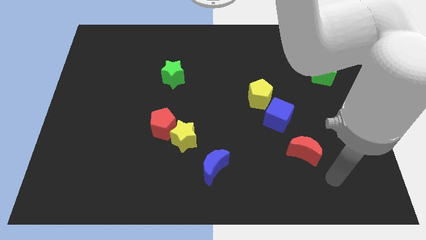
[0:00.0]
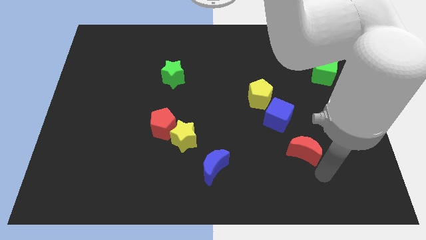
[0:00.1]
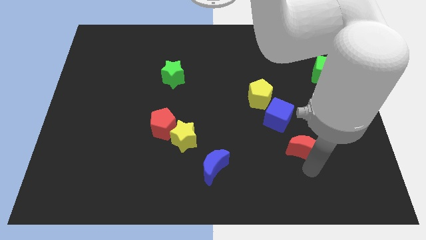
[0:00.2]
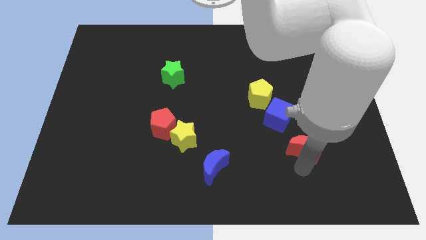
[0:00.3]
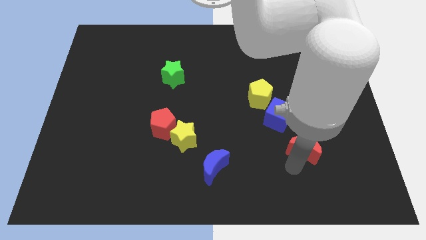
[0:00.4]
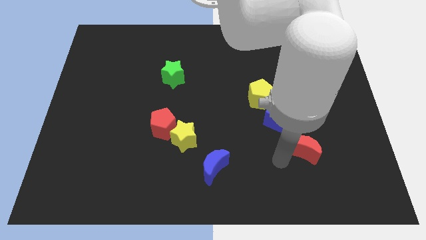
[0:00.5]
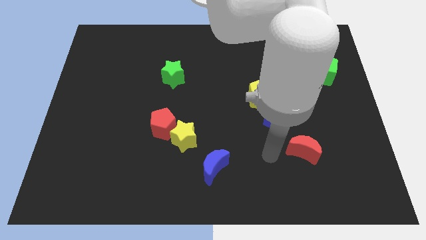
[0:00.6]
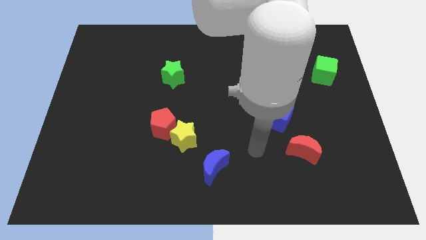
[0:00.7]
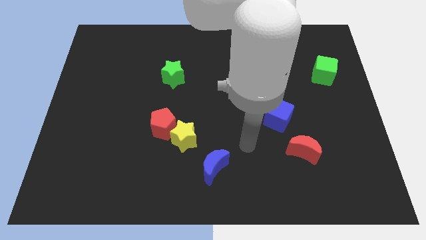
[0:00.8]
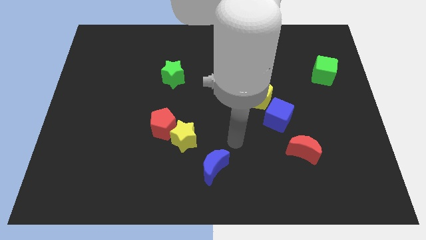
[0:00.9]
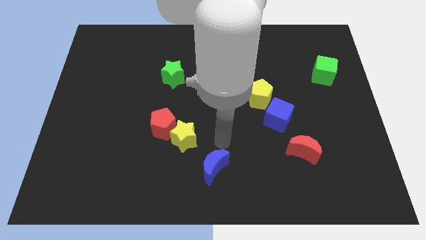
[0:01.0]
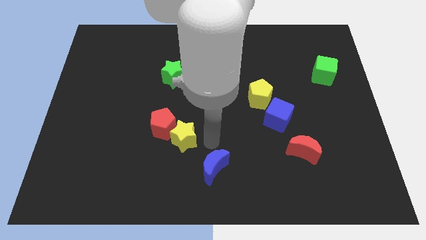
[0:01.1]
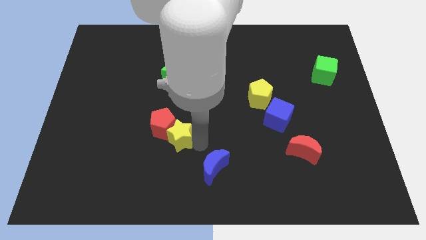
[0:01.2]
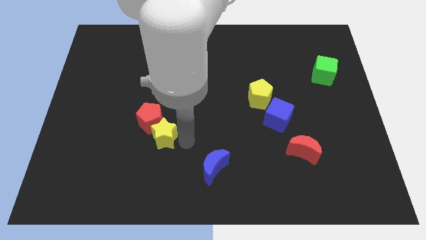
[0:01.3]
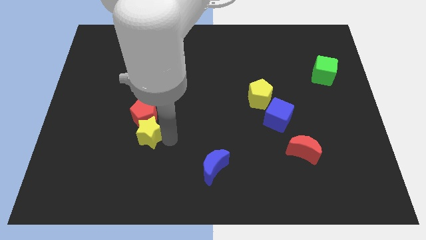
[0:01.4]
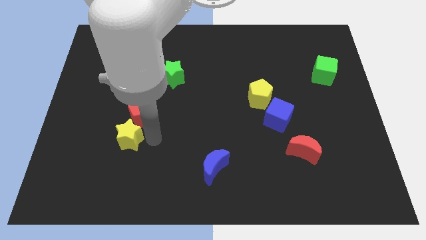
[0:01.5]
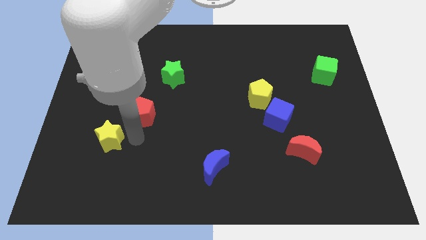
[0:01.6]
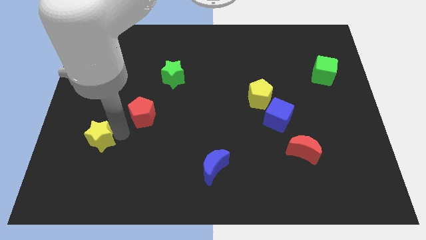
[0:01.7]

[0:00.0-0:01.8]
separate the red pentagon from the yellow star

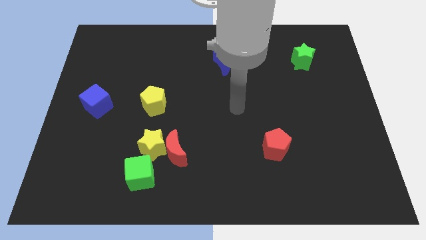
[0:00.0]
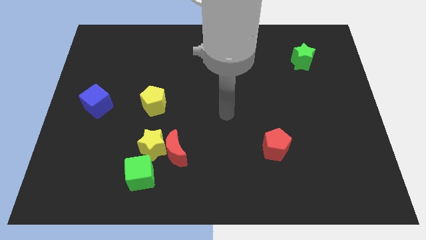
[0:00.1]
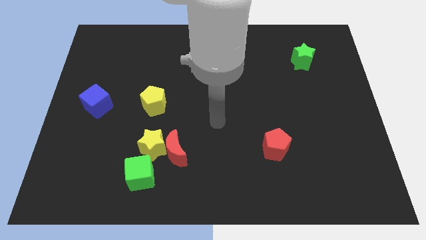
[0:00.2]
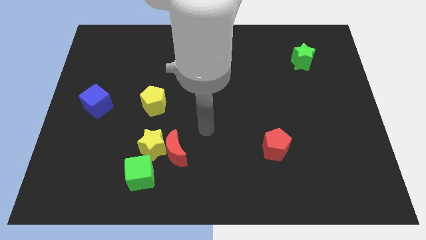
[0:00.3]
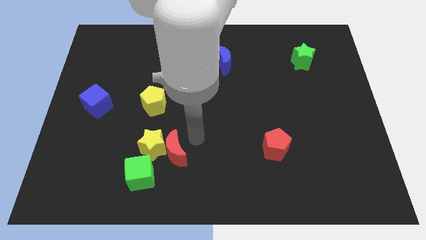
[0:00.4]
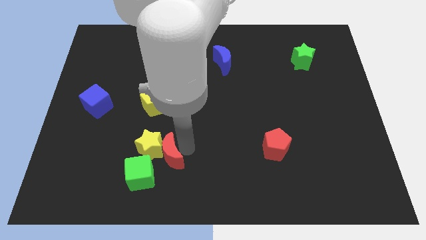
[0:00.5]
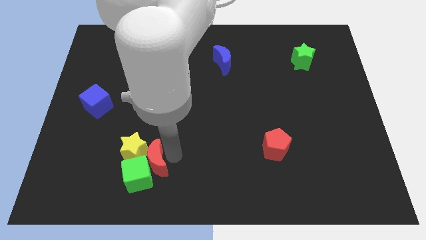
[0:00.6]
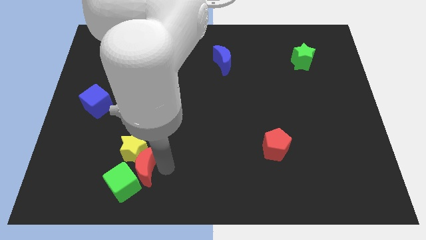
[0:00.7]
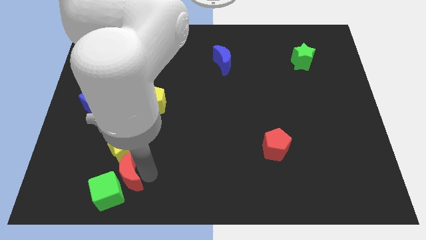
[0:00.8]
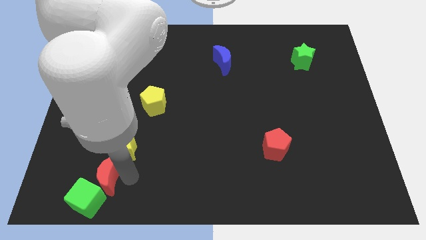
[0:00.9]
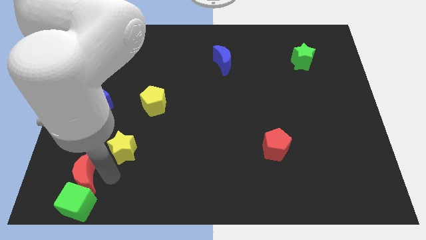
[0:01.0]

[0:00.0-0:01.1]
separate the yellow star from the red moon and green cube

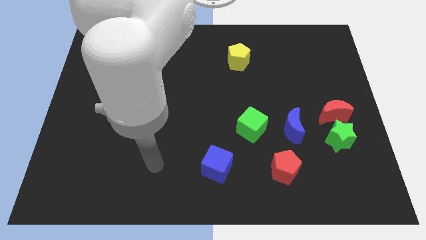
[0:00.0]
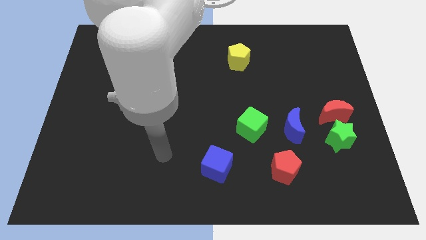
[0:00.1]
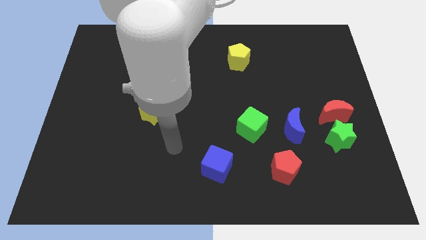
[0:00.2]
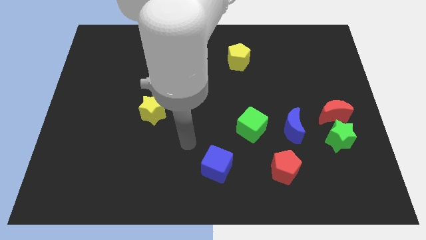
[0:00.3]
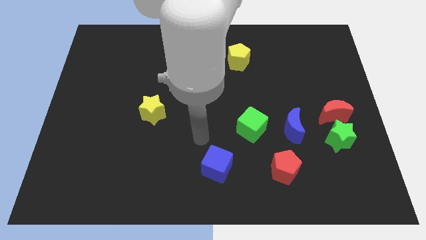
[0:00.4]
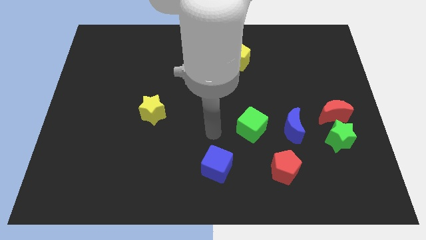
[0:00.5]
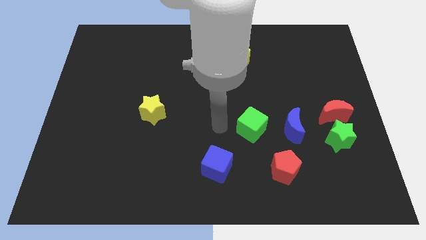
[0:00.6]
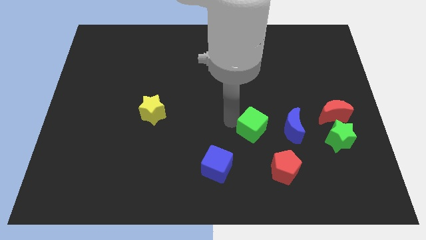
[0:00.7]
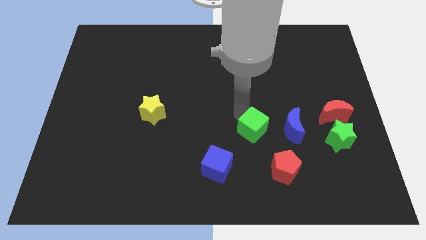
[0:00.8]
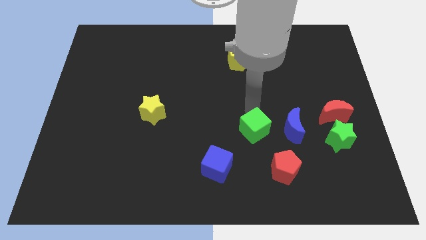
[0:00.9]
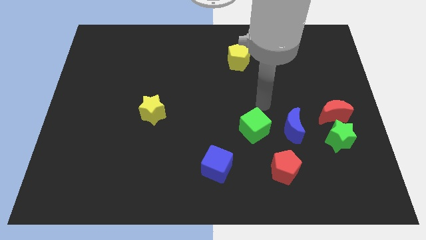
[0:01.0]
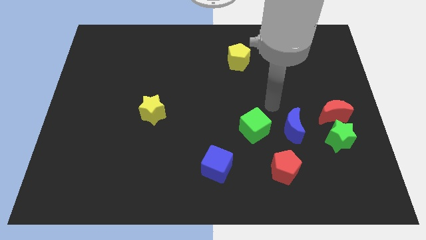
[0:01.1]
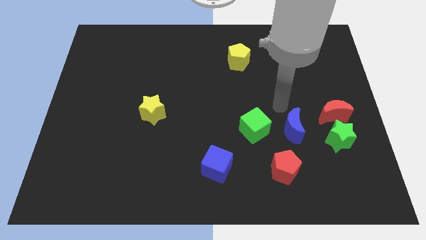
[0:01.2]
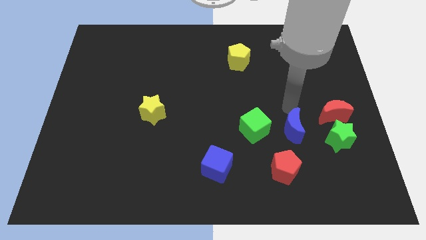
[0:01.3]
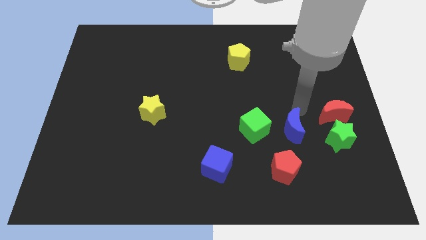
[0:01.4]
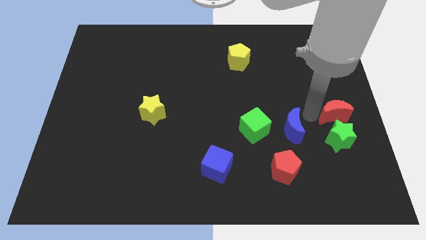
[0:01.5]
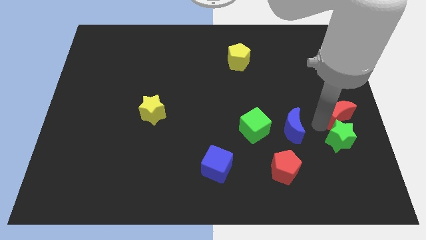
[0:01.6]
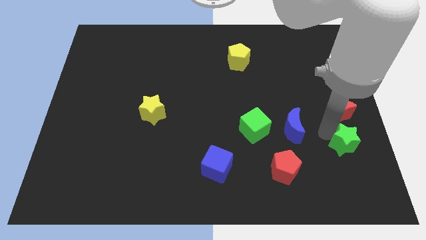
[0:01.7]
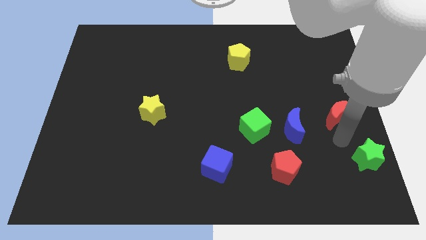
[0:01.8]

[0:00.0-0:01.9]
move the red moon away from the green star

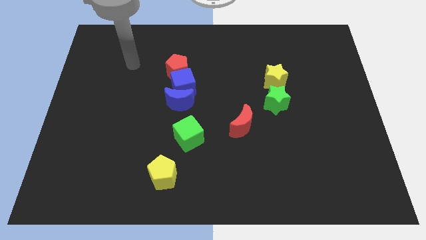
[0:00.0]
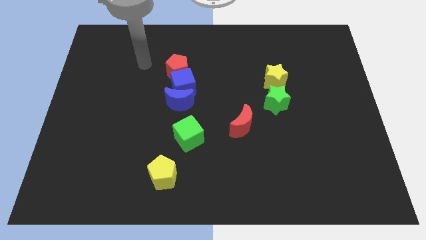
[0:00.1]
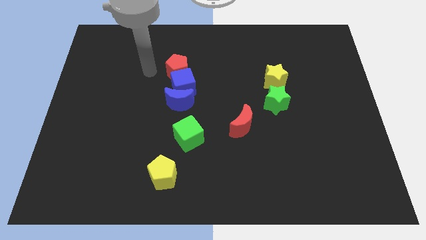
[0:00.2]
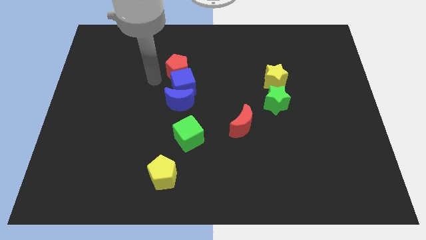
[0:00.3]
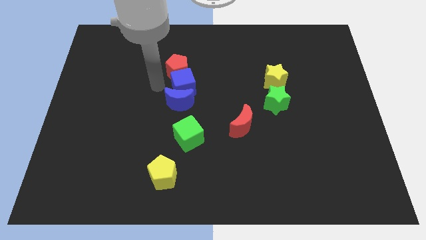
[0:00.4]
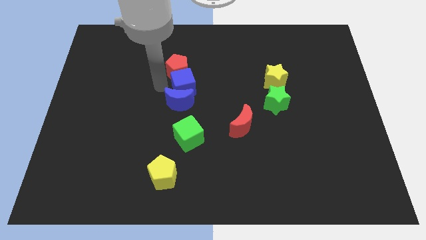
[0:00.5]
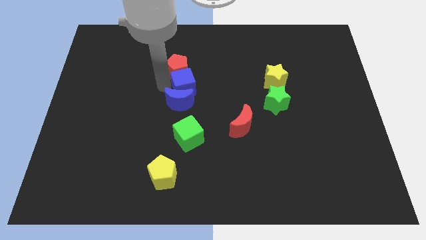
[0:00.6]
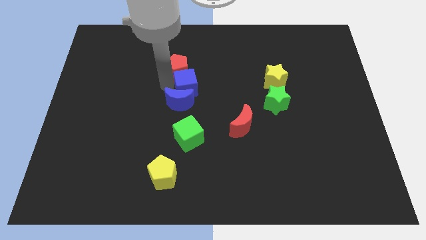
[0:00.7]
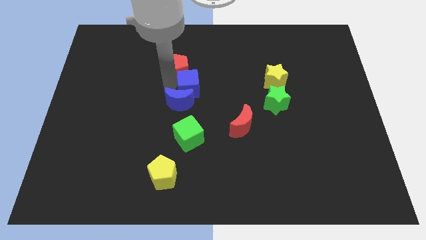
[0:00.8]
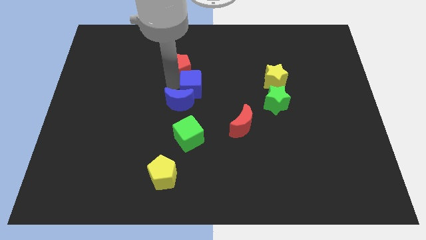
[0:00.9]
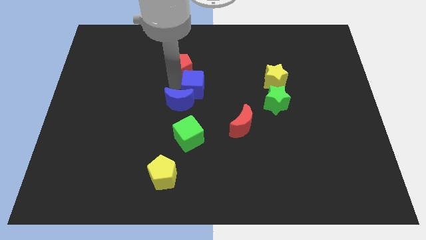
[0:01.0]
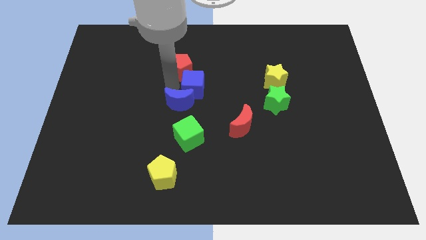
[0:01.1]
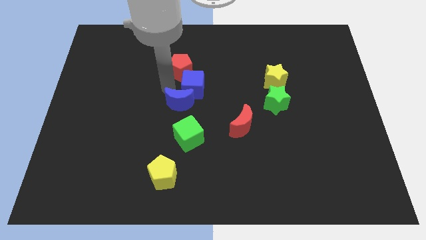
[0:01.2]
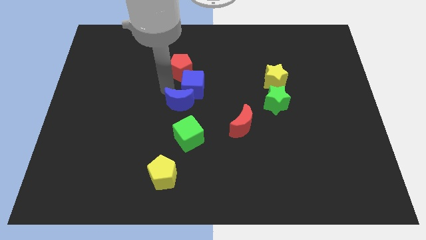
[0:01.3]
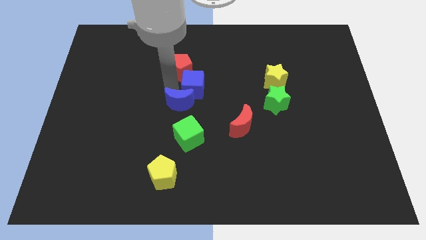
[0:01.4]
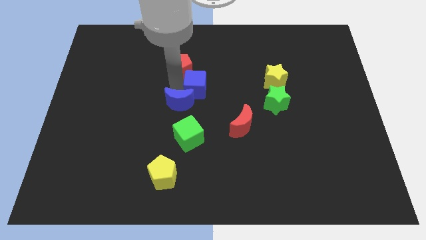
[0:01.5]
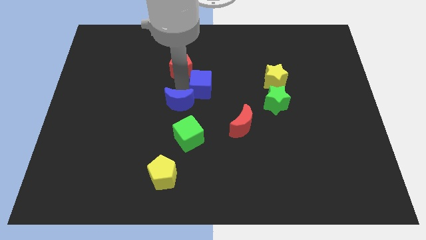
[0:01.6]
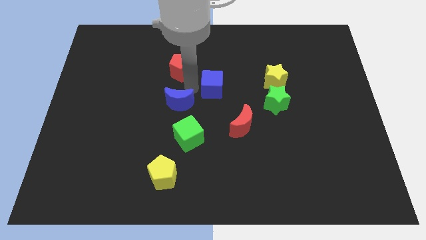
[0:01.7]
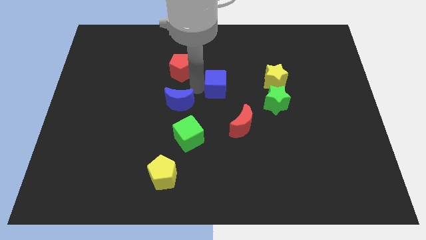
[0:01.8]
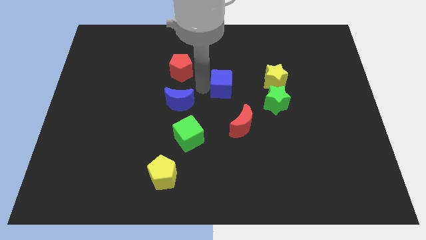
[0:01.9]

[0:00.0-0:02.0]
move the blue cube away from the blue moon and red pentagon

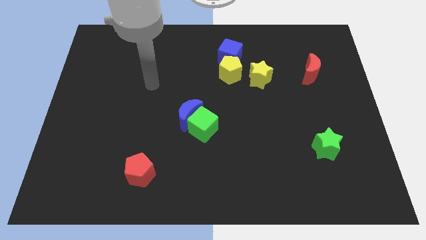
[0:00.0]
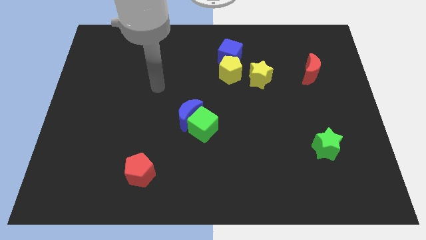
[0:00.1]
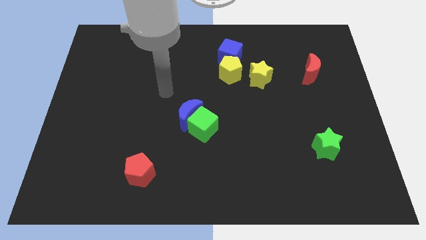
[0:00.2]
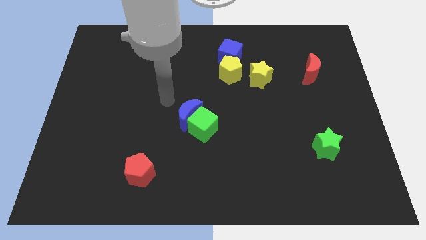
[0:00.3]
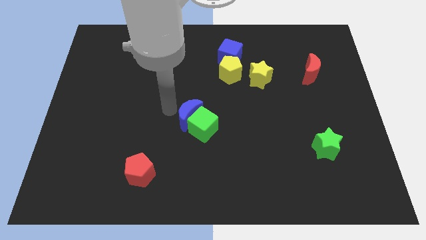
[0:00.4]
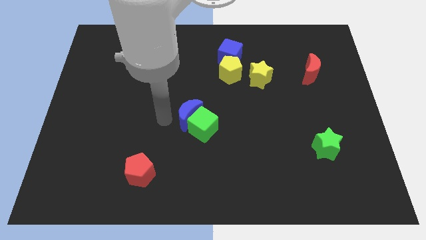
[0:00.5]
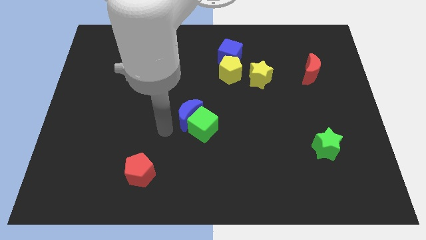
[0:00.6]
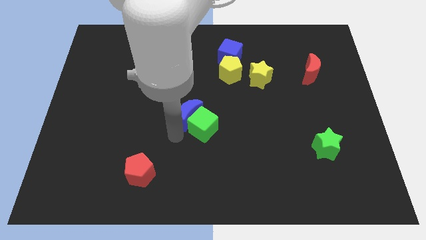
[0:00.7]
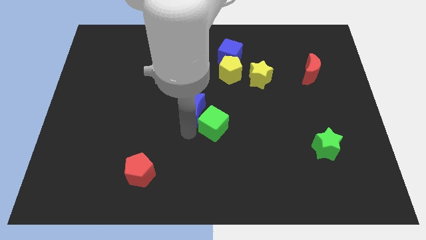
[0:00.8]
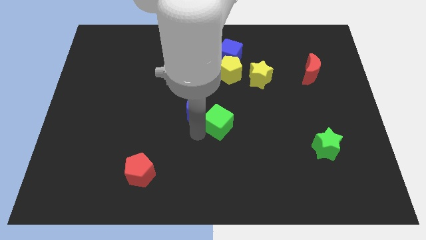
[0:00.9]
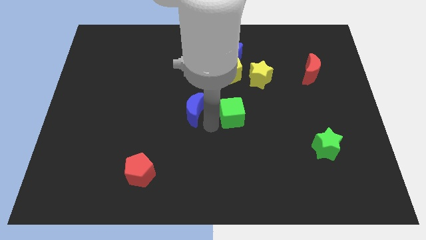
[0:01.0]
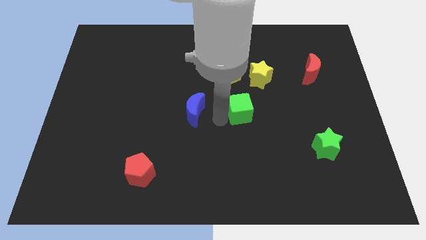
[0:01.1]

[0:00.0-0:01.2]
separate the blue moon from the green cube

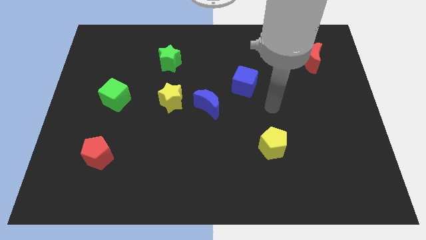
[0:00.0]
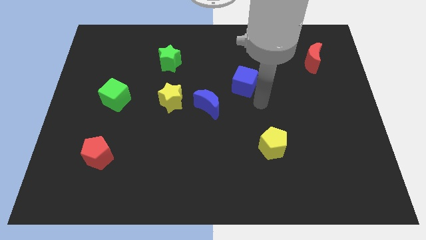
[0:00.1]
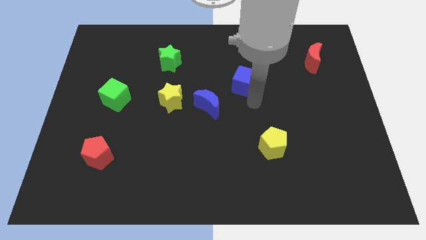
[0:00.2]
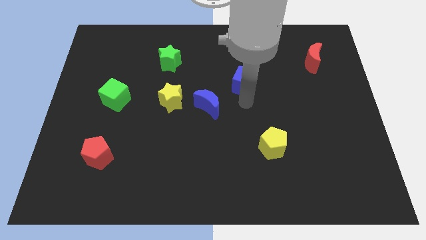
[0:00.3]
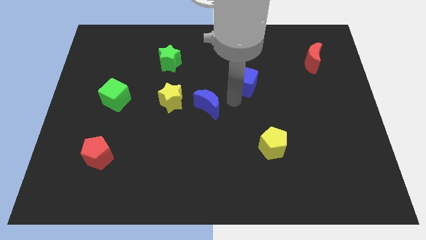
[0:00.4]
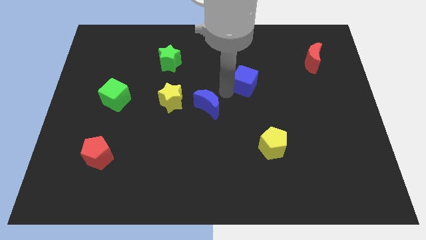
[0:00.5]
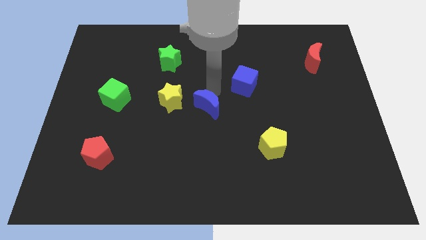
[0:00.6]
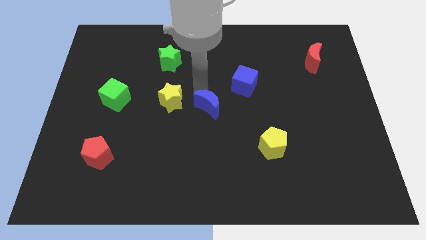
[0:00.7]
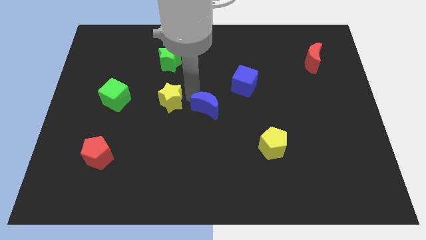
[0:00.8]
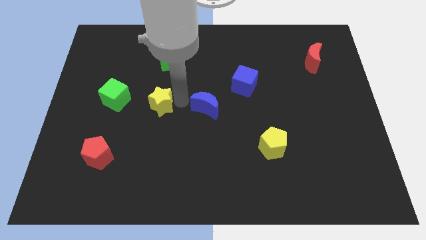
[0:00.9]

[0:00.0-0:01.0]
separate the blue moon from the yellow star

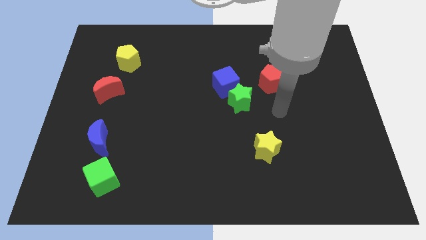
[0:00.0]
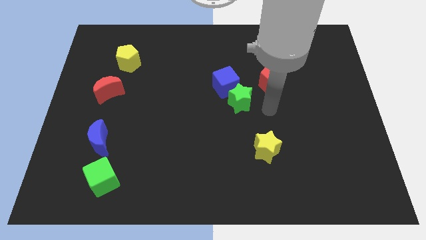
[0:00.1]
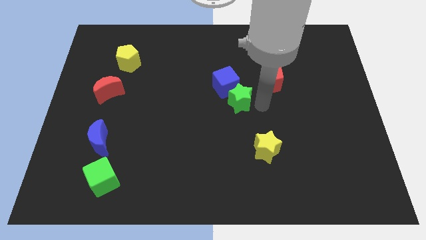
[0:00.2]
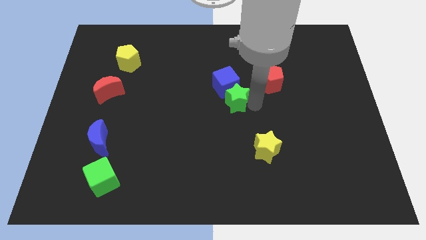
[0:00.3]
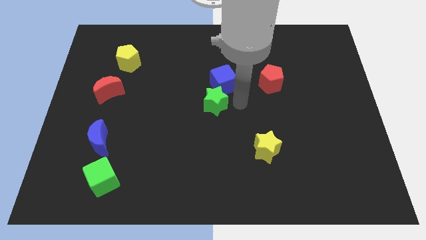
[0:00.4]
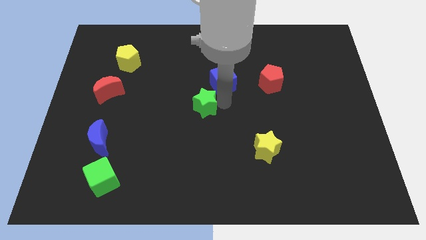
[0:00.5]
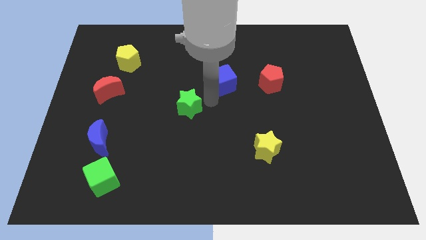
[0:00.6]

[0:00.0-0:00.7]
separate the blue cube from the green star
